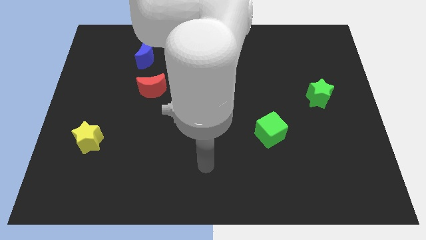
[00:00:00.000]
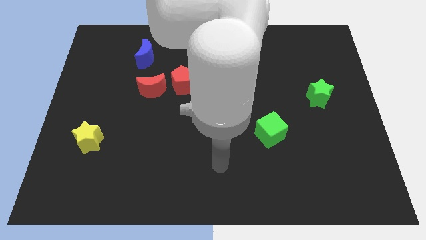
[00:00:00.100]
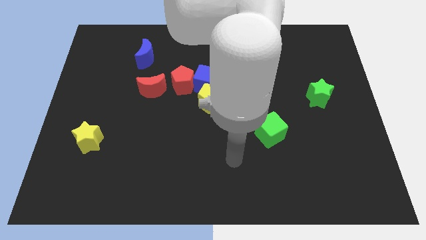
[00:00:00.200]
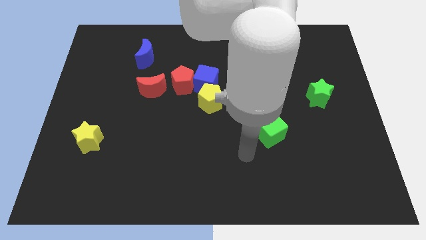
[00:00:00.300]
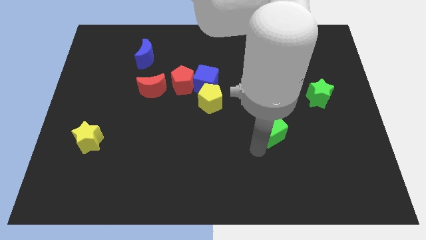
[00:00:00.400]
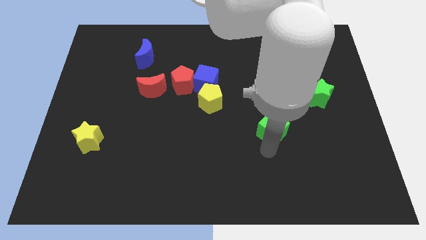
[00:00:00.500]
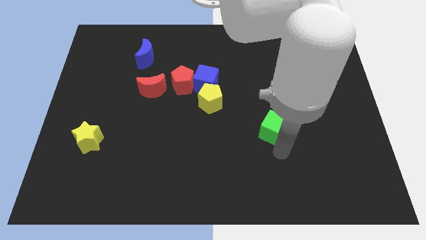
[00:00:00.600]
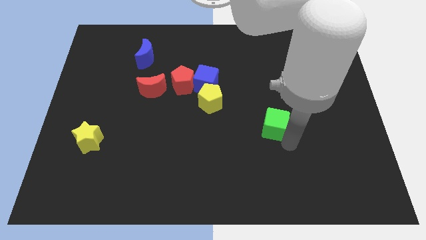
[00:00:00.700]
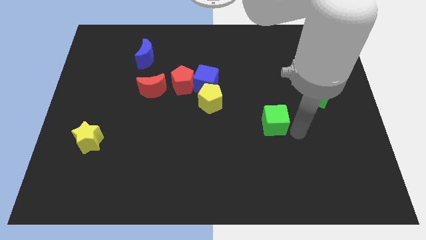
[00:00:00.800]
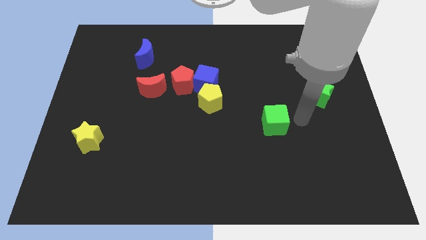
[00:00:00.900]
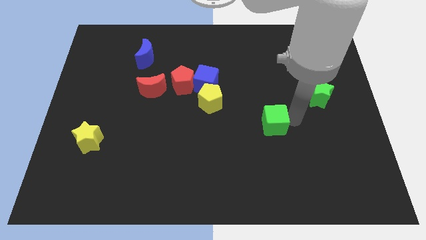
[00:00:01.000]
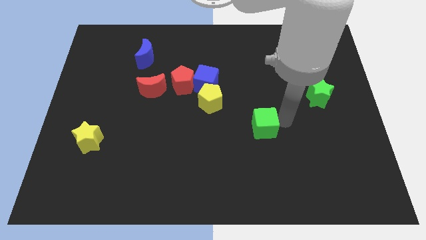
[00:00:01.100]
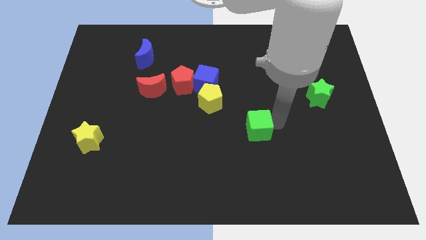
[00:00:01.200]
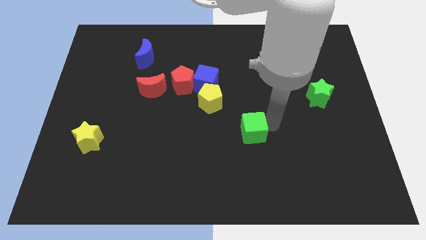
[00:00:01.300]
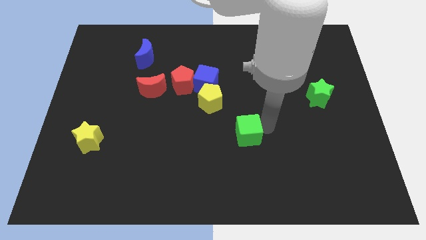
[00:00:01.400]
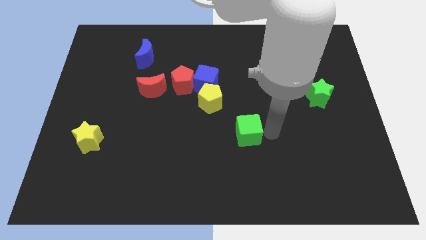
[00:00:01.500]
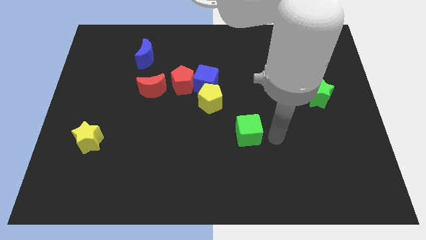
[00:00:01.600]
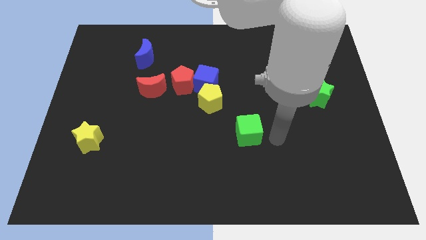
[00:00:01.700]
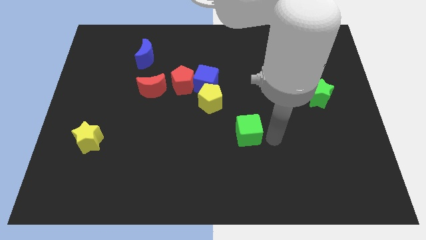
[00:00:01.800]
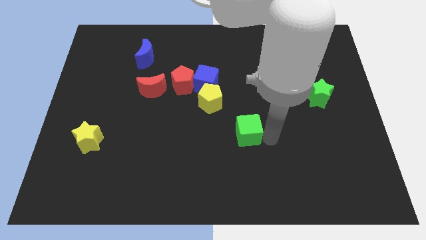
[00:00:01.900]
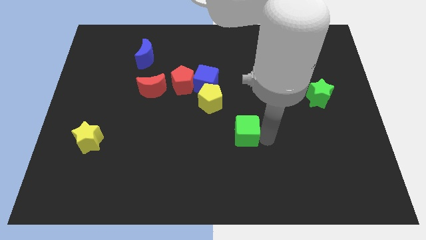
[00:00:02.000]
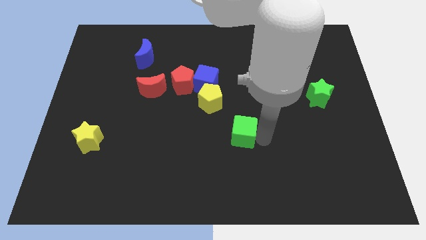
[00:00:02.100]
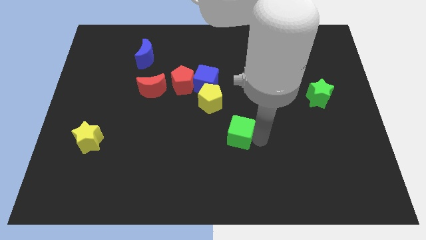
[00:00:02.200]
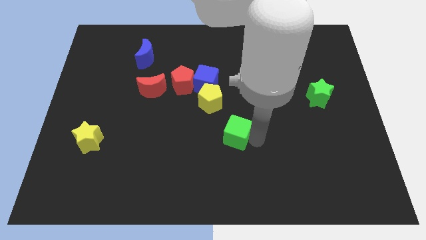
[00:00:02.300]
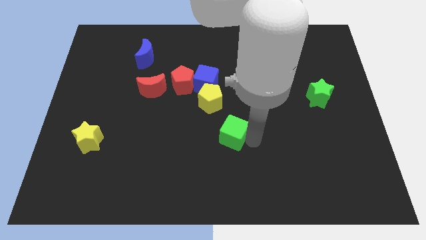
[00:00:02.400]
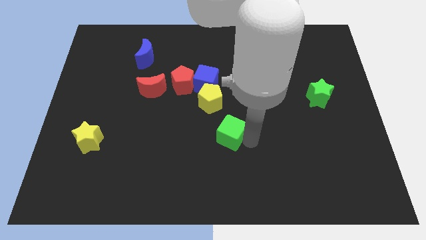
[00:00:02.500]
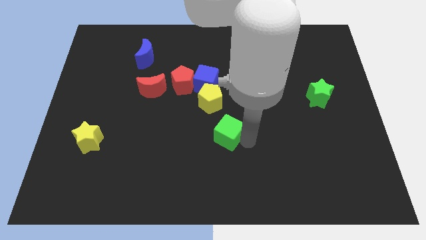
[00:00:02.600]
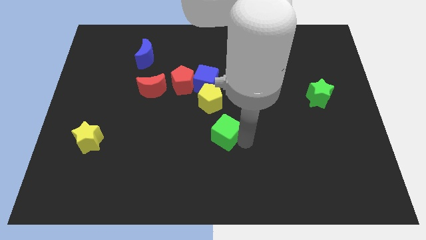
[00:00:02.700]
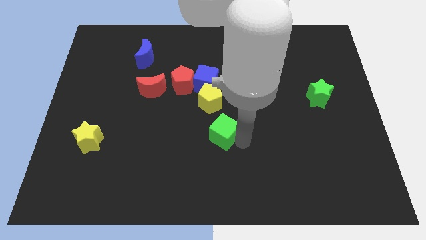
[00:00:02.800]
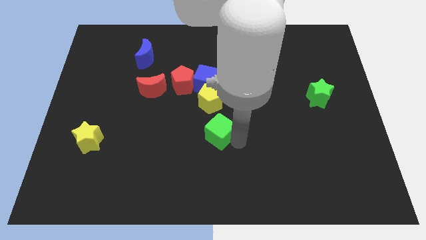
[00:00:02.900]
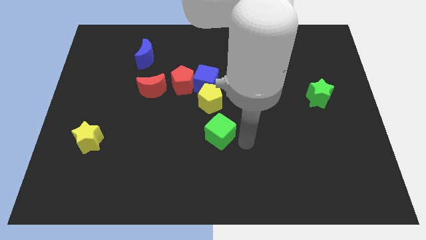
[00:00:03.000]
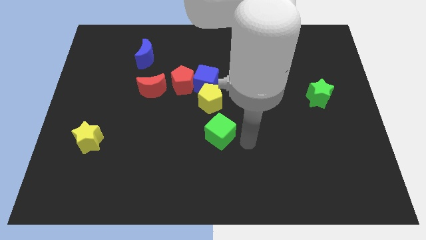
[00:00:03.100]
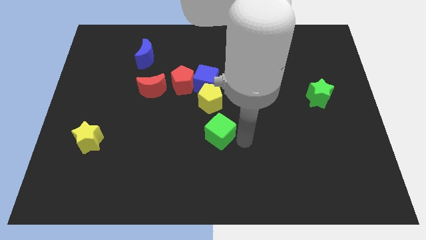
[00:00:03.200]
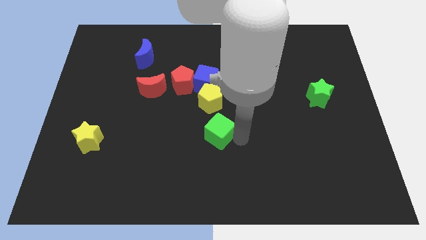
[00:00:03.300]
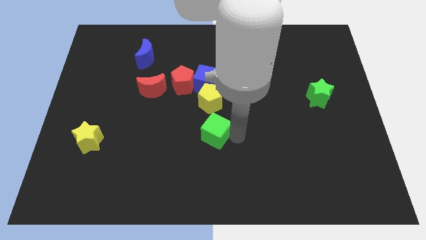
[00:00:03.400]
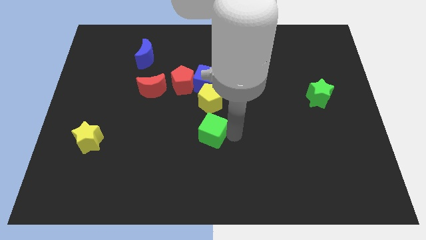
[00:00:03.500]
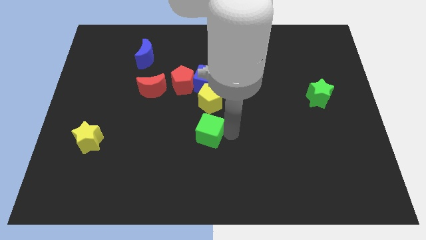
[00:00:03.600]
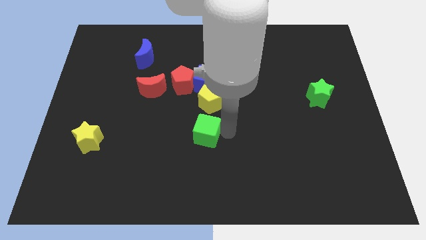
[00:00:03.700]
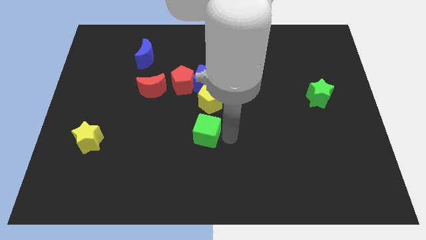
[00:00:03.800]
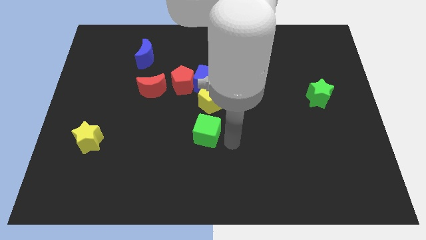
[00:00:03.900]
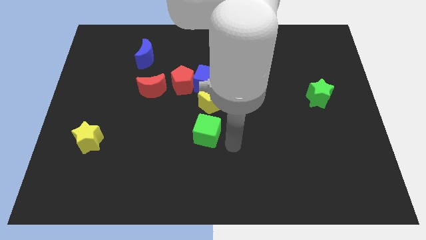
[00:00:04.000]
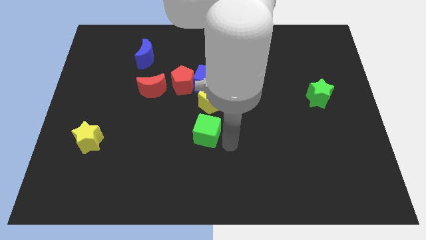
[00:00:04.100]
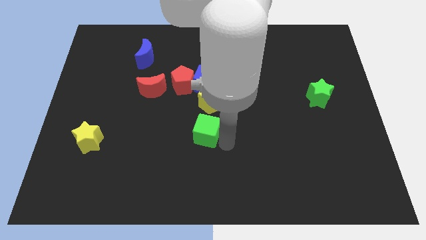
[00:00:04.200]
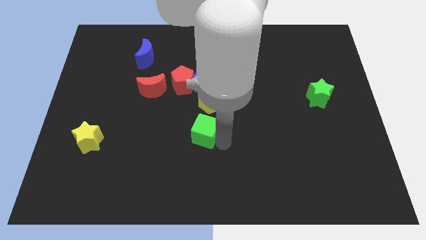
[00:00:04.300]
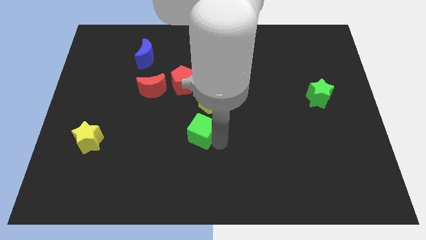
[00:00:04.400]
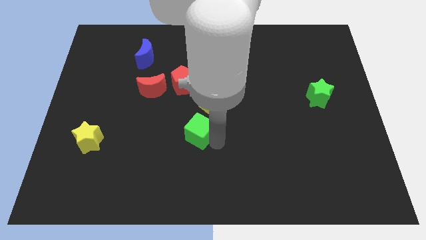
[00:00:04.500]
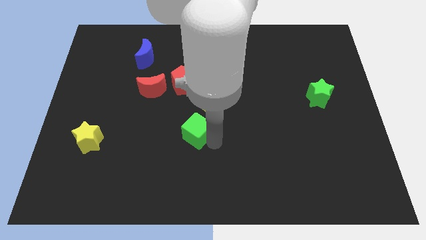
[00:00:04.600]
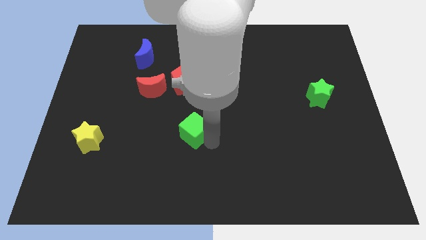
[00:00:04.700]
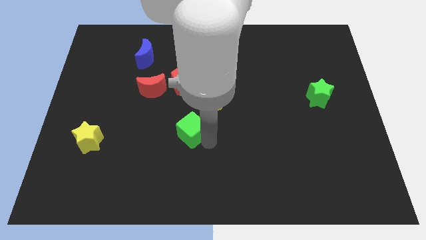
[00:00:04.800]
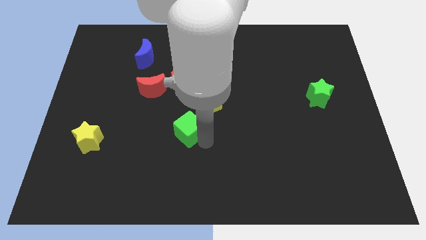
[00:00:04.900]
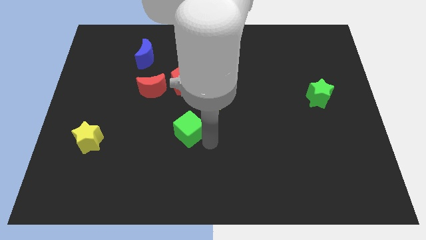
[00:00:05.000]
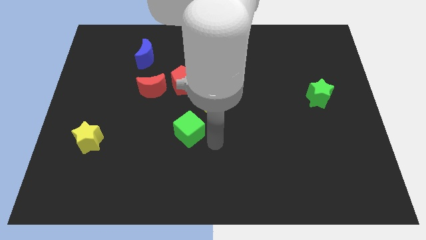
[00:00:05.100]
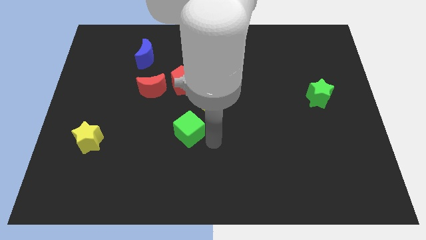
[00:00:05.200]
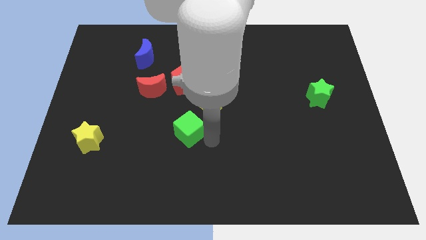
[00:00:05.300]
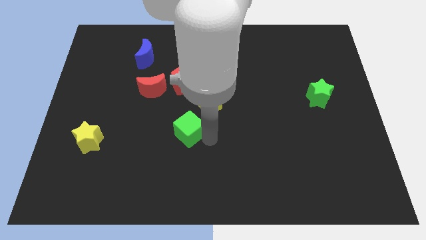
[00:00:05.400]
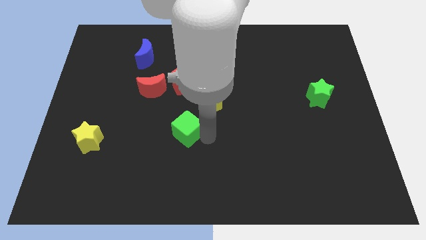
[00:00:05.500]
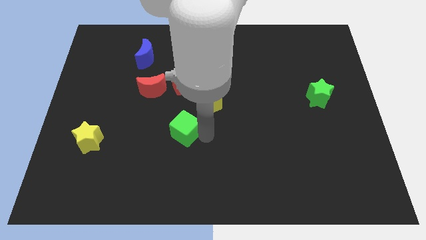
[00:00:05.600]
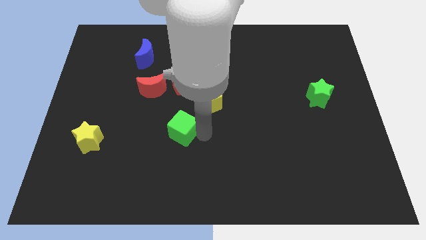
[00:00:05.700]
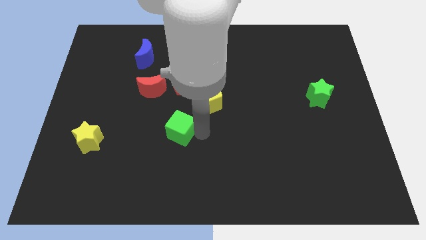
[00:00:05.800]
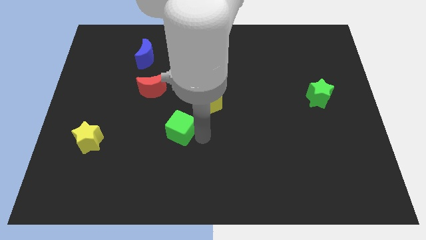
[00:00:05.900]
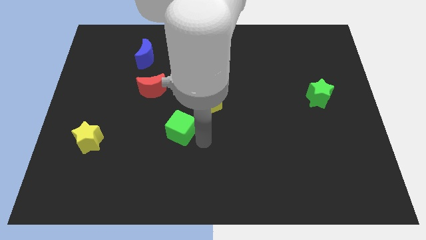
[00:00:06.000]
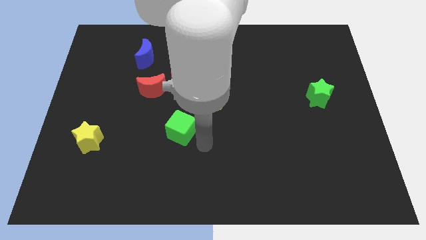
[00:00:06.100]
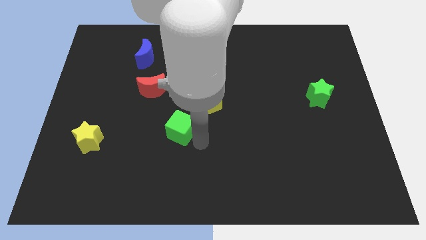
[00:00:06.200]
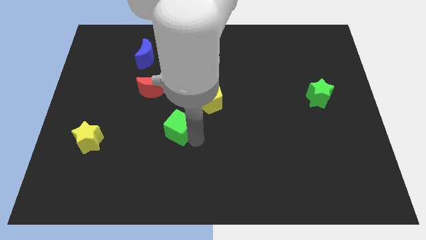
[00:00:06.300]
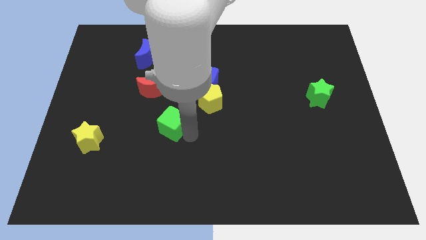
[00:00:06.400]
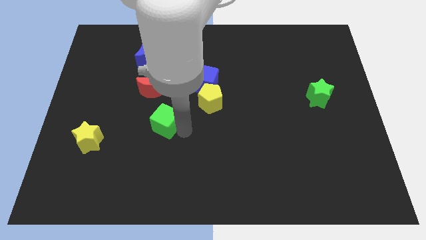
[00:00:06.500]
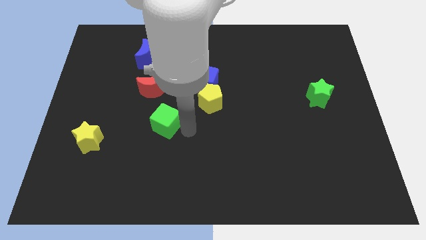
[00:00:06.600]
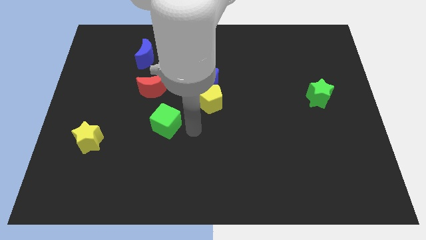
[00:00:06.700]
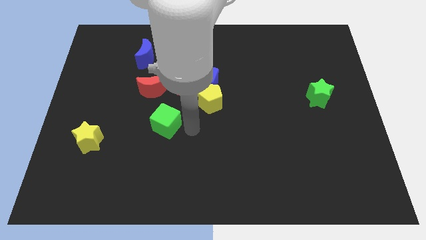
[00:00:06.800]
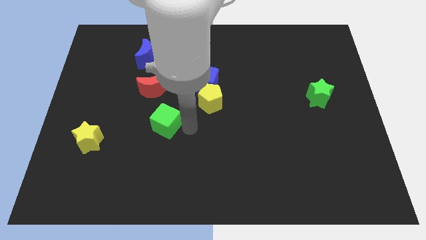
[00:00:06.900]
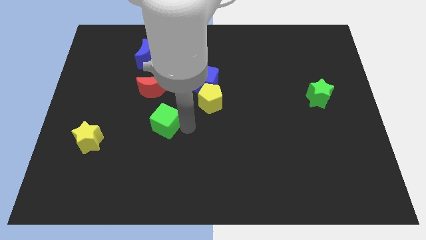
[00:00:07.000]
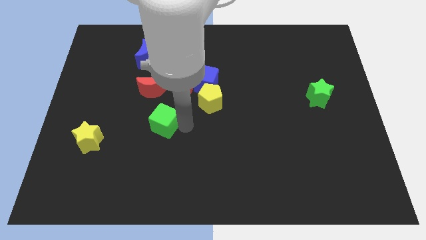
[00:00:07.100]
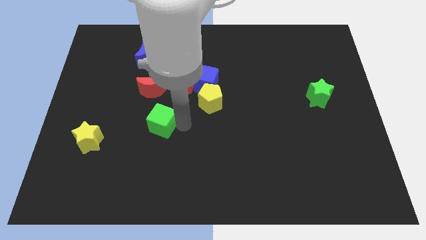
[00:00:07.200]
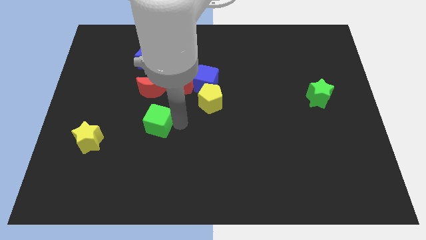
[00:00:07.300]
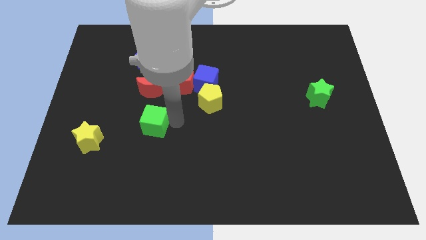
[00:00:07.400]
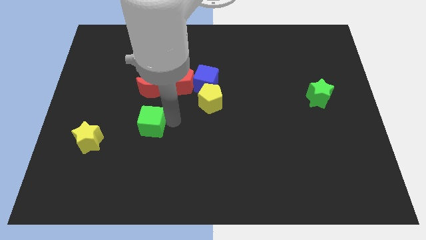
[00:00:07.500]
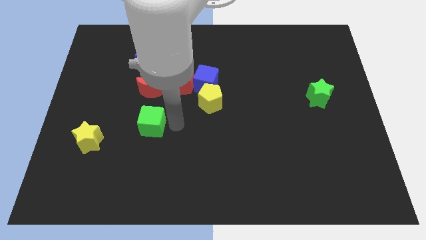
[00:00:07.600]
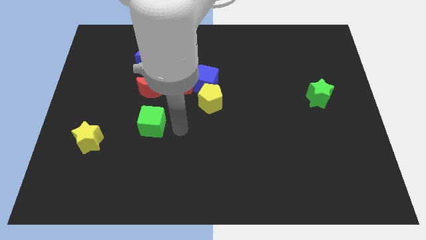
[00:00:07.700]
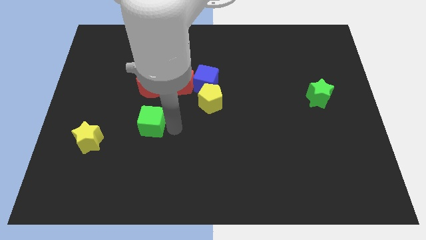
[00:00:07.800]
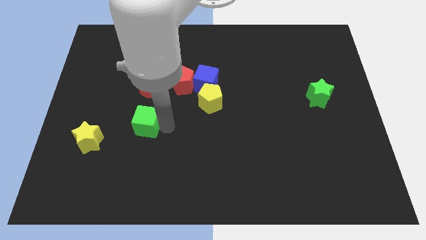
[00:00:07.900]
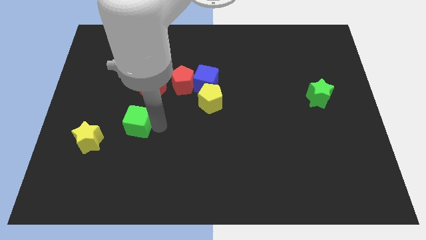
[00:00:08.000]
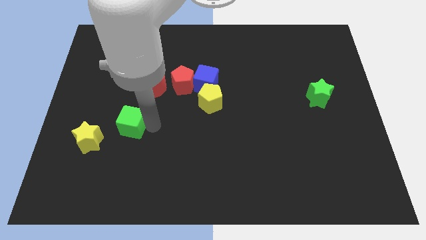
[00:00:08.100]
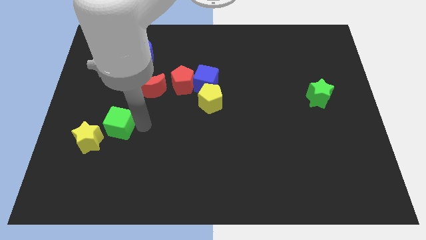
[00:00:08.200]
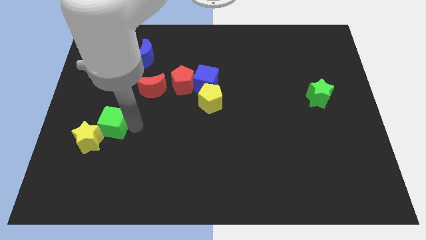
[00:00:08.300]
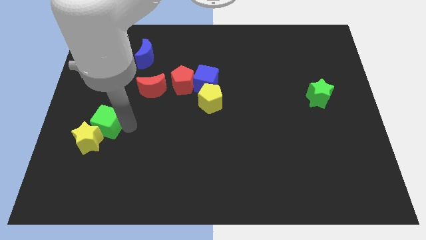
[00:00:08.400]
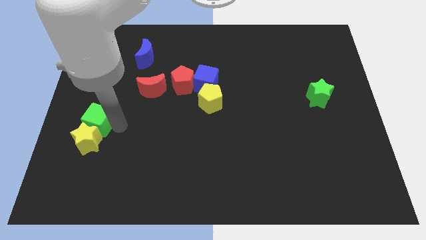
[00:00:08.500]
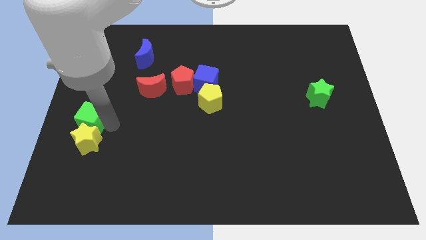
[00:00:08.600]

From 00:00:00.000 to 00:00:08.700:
move the green cube to the center left
